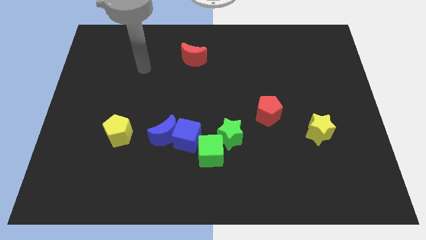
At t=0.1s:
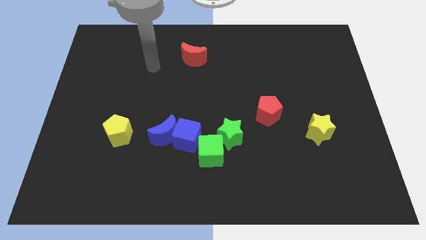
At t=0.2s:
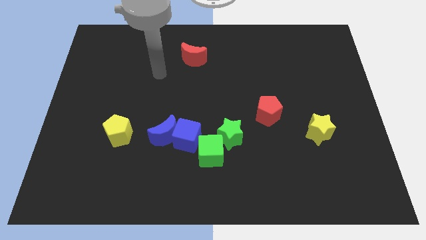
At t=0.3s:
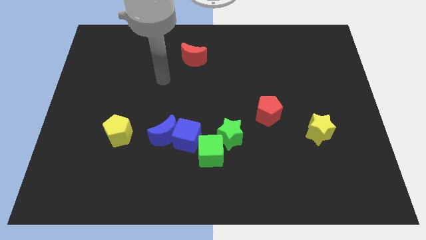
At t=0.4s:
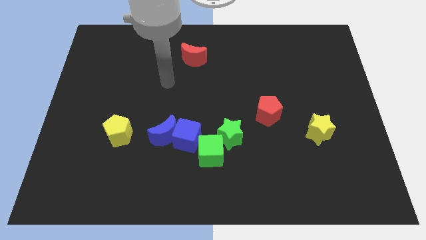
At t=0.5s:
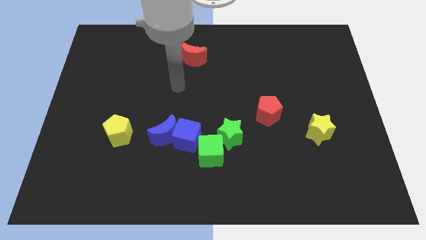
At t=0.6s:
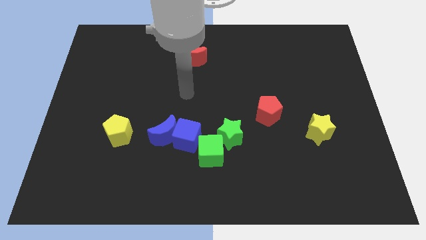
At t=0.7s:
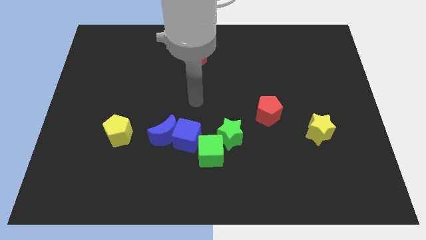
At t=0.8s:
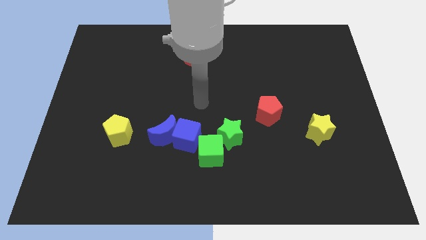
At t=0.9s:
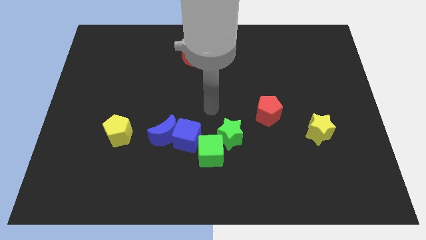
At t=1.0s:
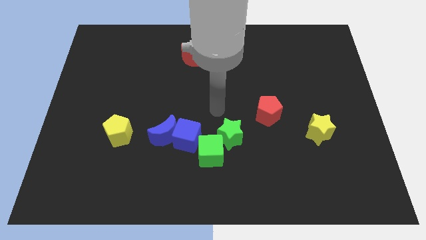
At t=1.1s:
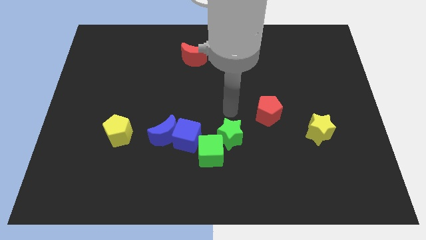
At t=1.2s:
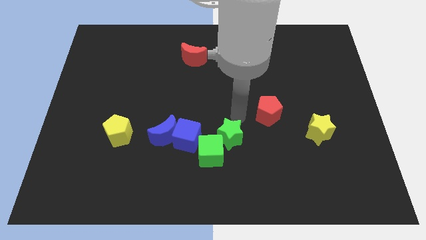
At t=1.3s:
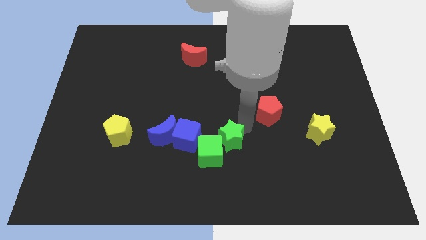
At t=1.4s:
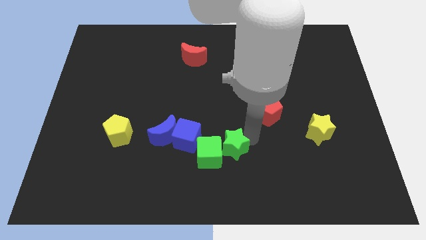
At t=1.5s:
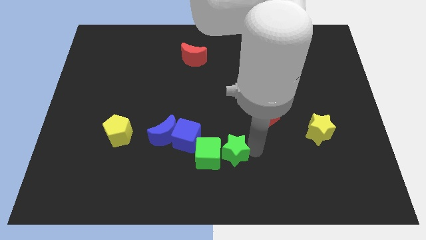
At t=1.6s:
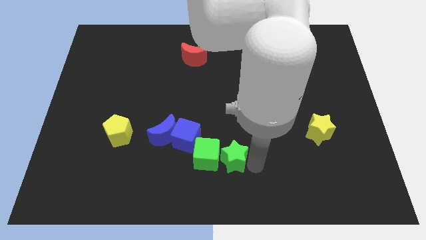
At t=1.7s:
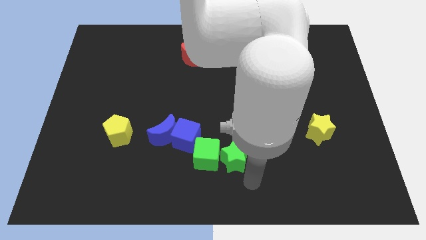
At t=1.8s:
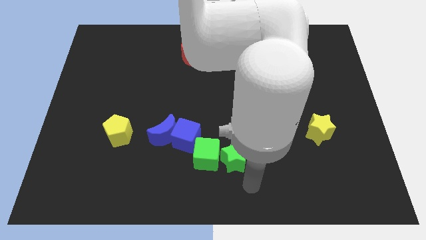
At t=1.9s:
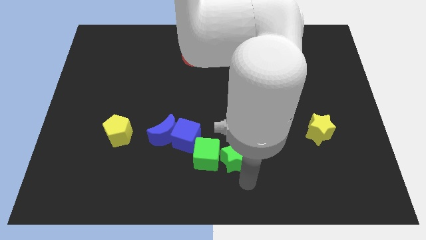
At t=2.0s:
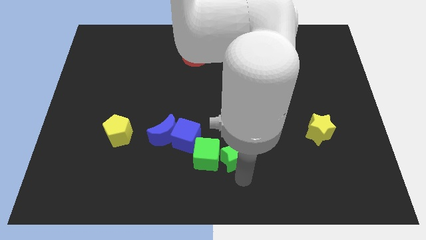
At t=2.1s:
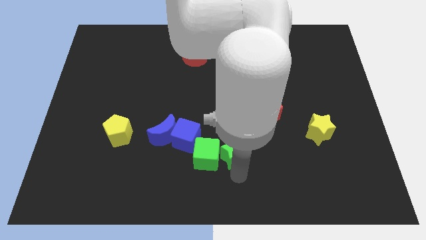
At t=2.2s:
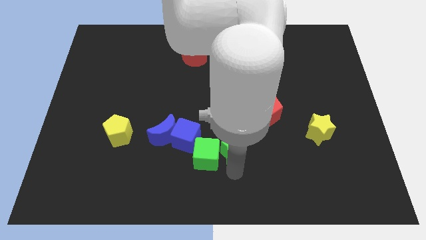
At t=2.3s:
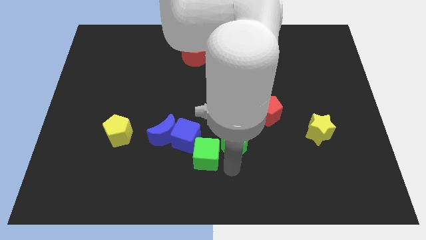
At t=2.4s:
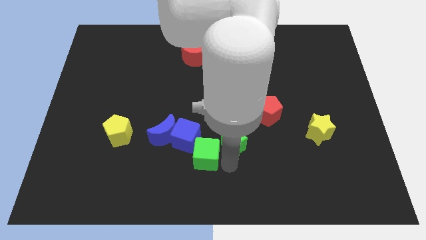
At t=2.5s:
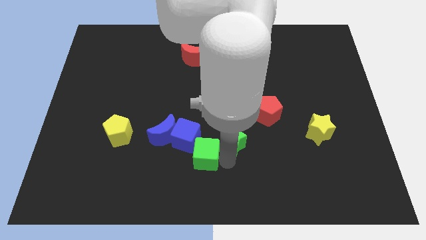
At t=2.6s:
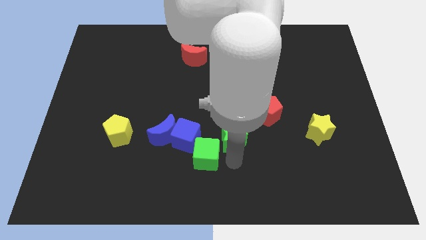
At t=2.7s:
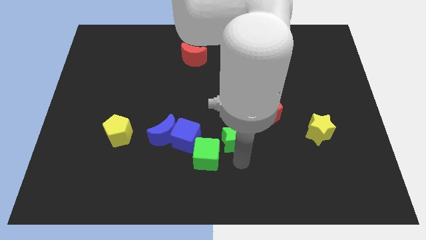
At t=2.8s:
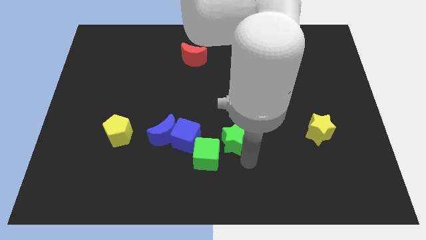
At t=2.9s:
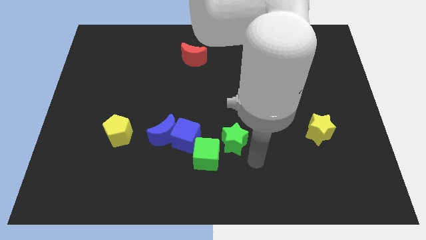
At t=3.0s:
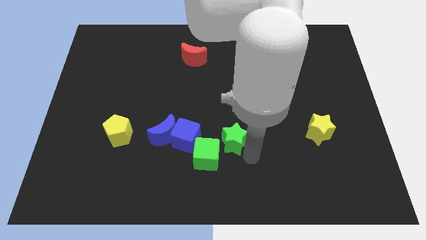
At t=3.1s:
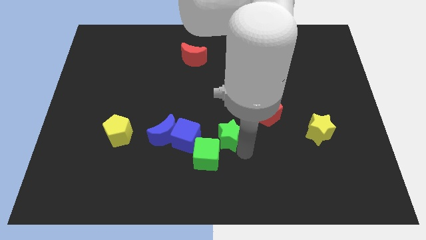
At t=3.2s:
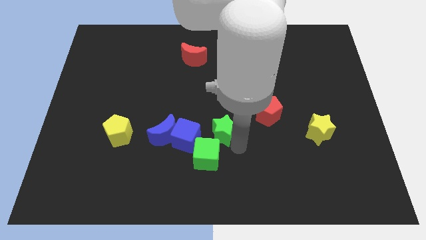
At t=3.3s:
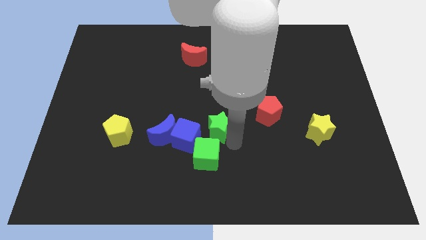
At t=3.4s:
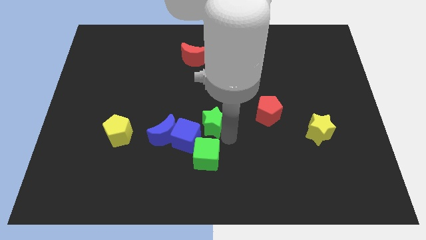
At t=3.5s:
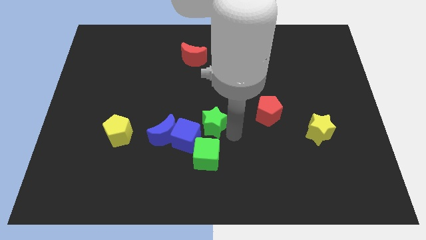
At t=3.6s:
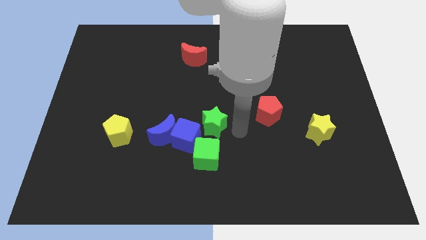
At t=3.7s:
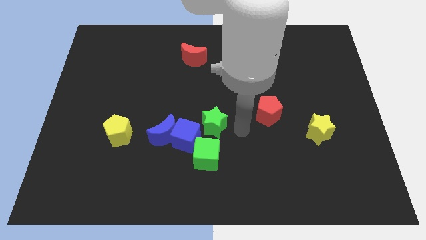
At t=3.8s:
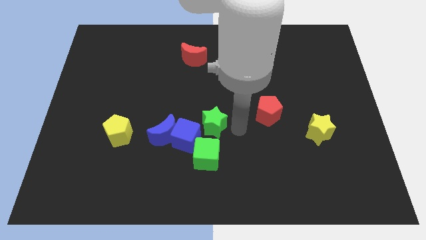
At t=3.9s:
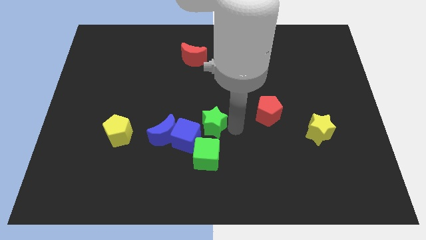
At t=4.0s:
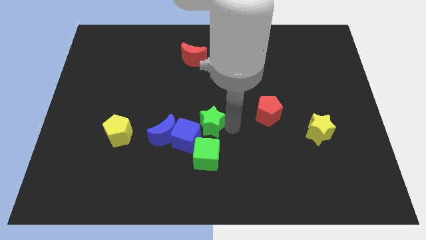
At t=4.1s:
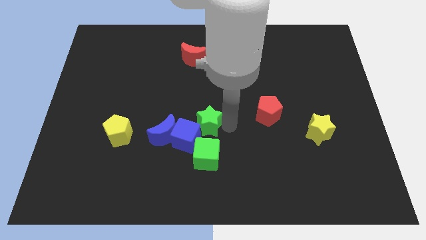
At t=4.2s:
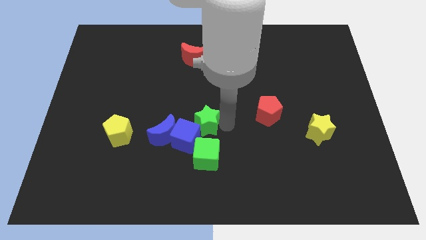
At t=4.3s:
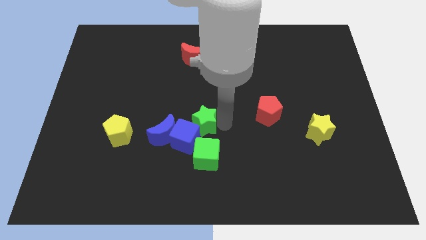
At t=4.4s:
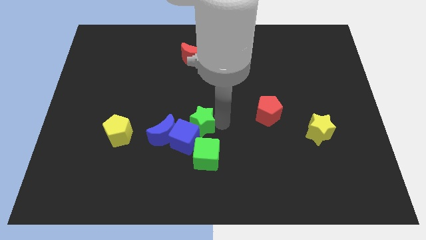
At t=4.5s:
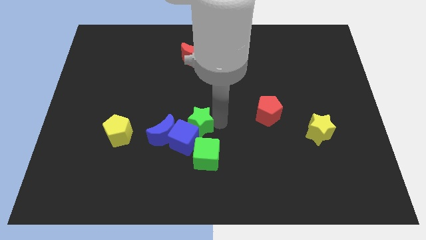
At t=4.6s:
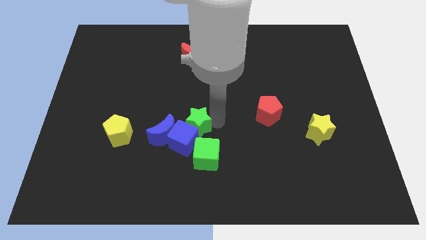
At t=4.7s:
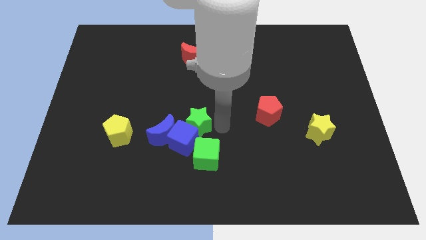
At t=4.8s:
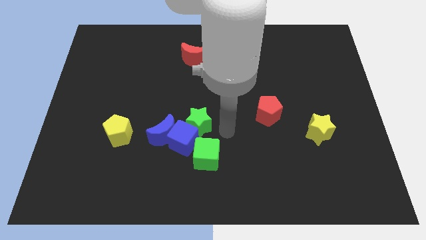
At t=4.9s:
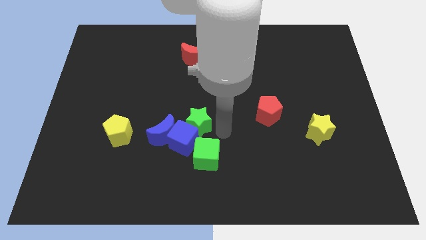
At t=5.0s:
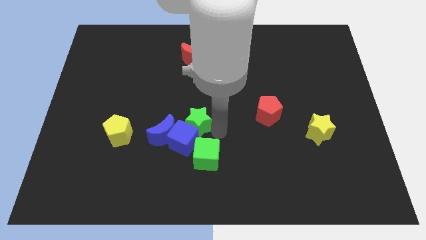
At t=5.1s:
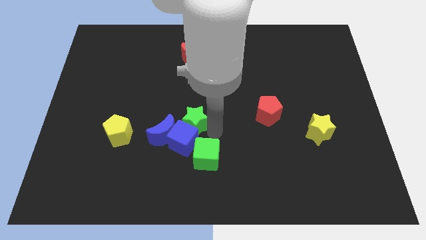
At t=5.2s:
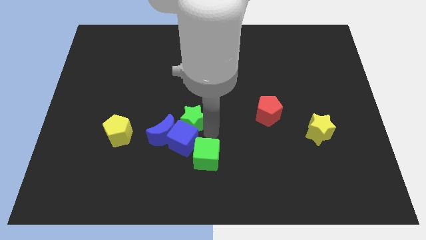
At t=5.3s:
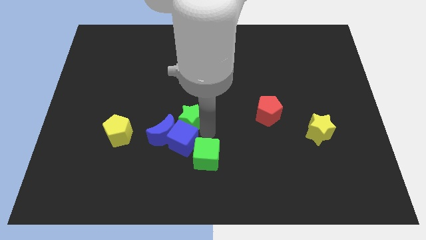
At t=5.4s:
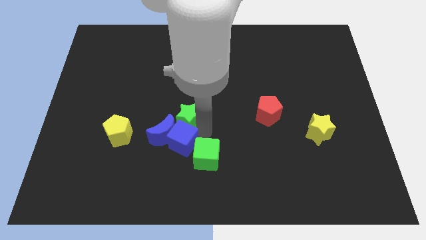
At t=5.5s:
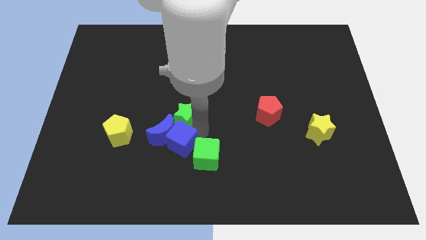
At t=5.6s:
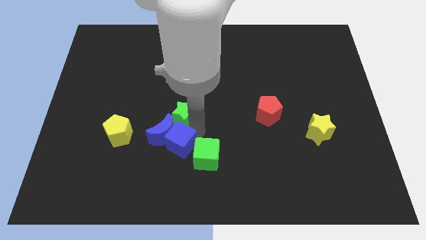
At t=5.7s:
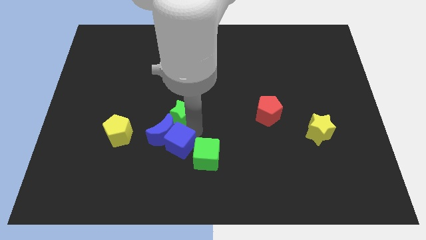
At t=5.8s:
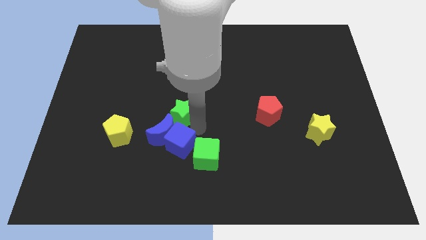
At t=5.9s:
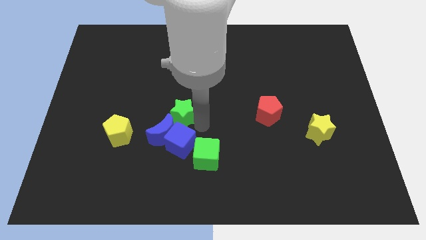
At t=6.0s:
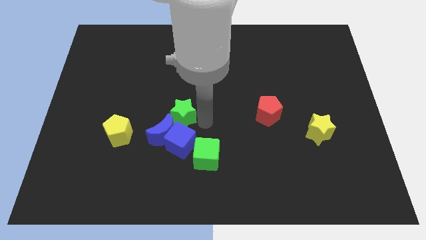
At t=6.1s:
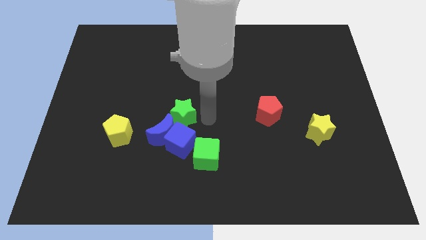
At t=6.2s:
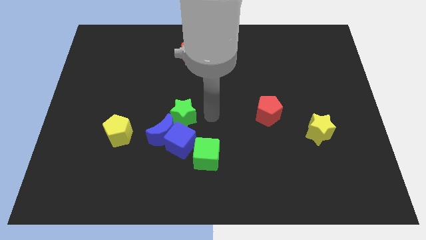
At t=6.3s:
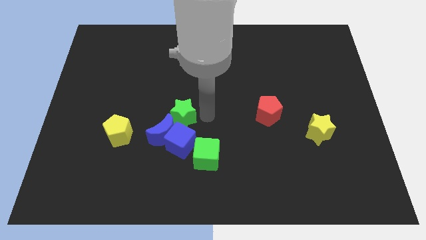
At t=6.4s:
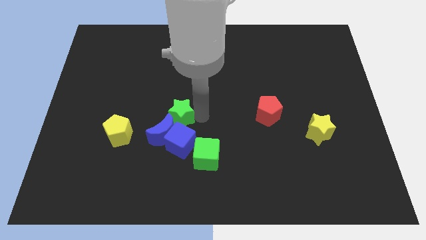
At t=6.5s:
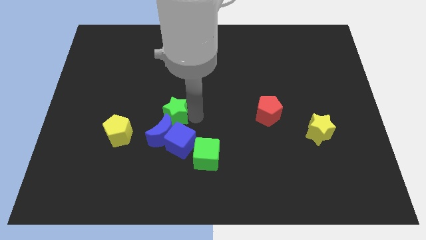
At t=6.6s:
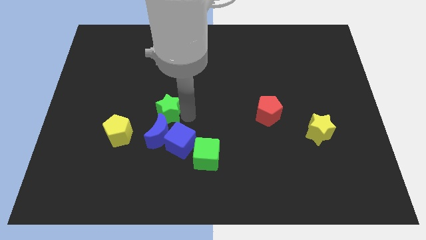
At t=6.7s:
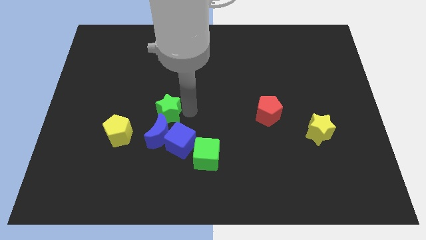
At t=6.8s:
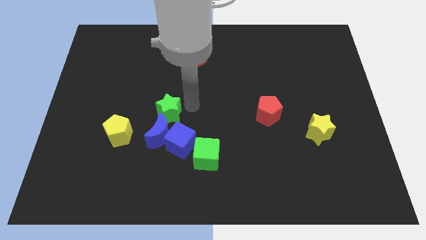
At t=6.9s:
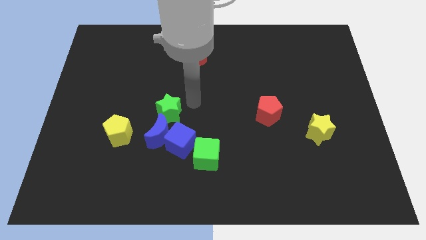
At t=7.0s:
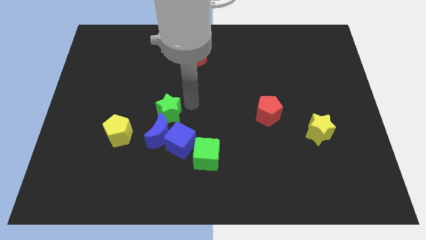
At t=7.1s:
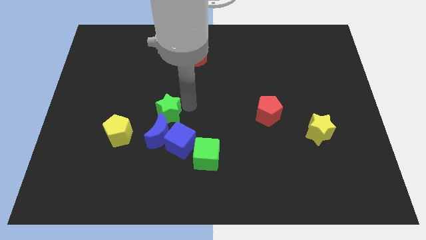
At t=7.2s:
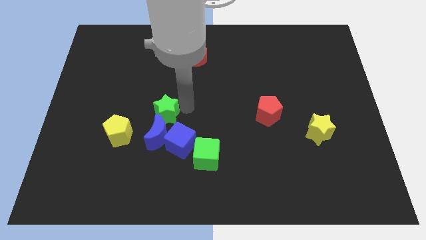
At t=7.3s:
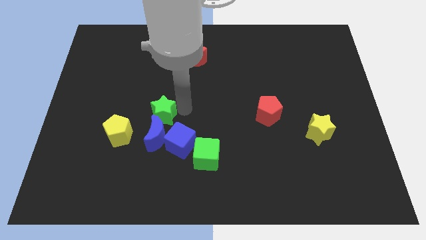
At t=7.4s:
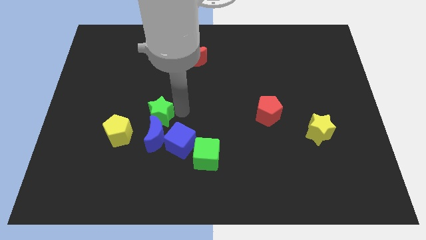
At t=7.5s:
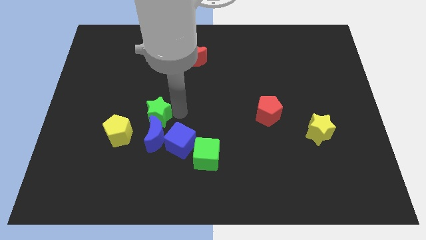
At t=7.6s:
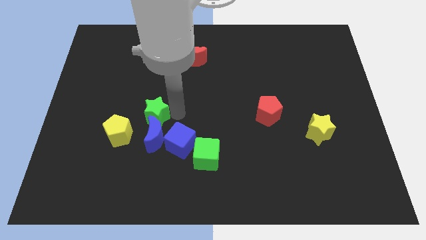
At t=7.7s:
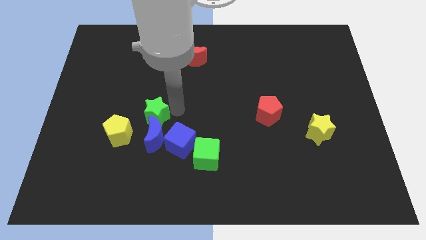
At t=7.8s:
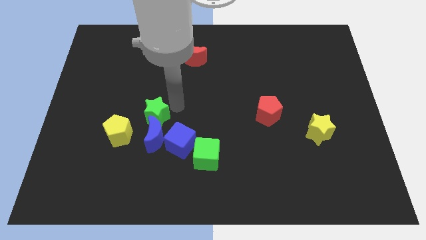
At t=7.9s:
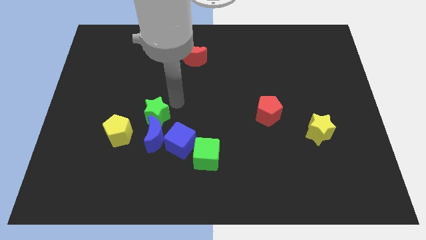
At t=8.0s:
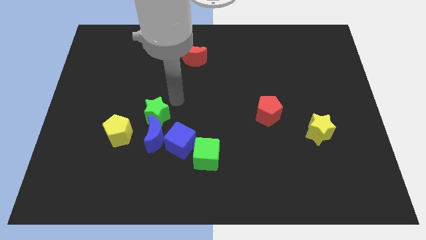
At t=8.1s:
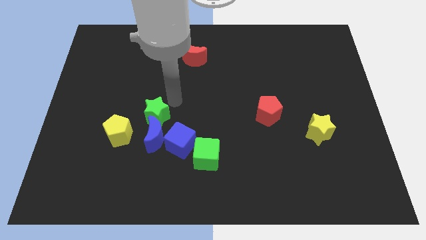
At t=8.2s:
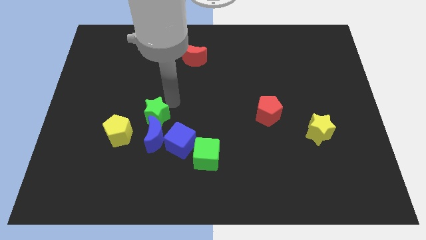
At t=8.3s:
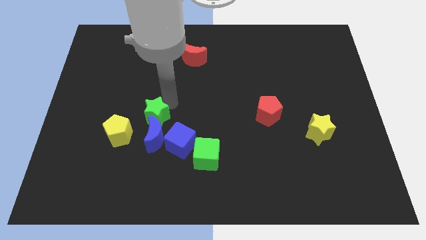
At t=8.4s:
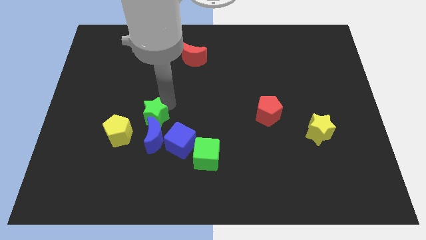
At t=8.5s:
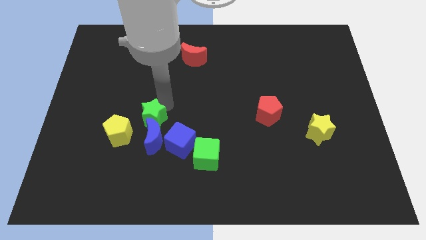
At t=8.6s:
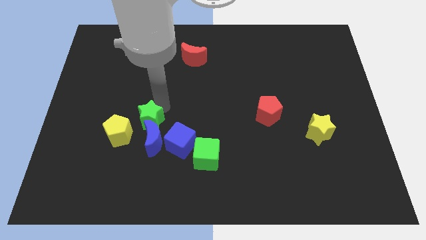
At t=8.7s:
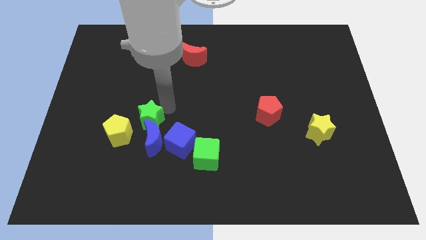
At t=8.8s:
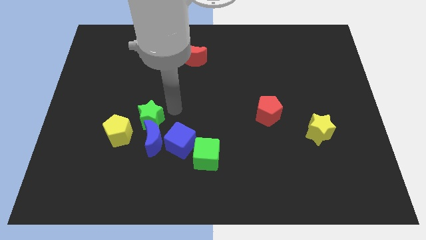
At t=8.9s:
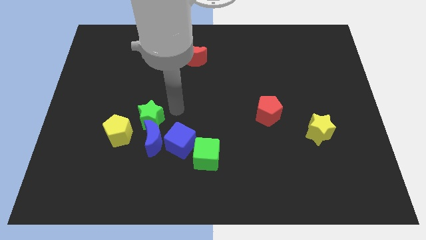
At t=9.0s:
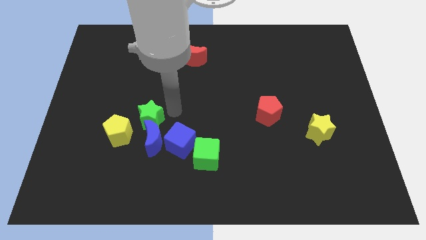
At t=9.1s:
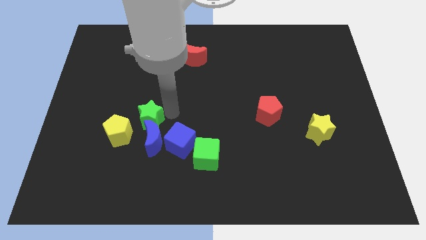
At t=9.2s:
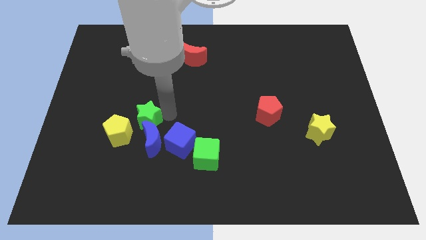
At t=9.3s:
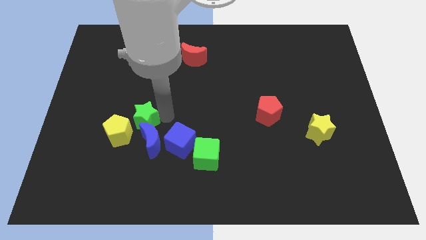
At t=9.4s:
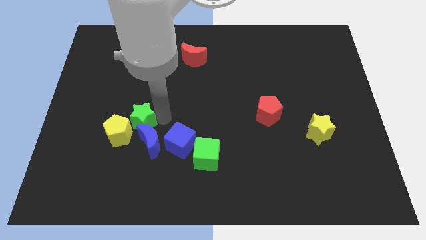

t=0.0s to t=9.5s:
move the green star close to the yellow pentagon
